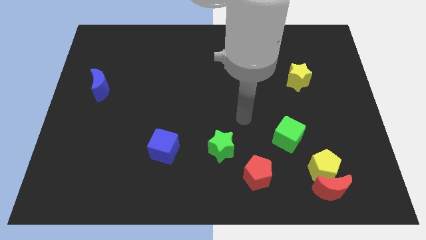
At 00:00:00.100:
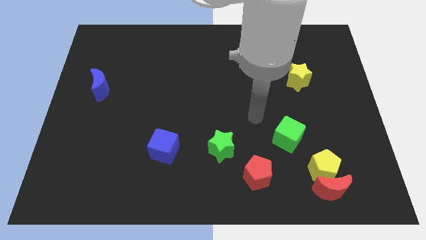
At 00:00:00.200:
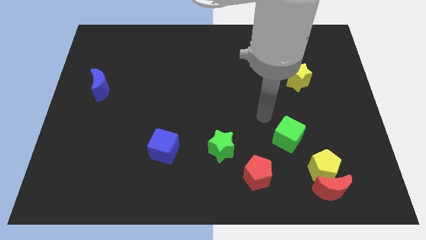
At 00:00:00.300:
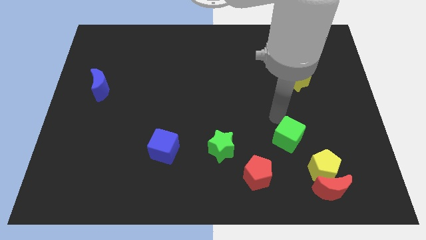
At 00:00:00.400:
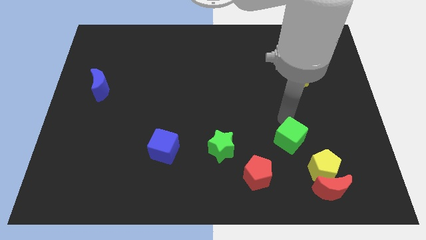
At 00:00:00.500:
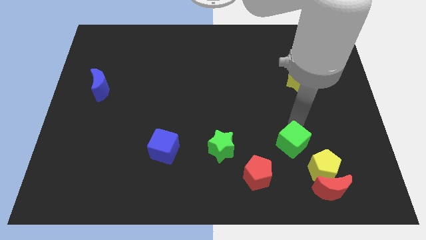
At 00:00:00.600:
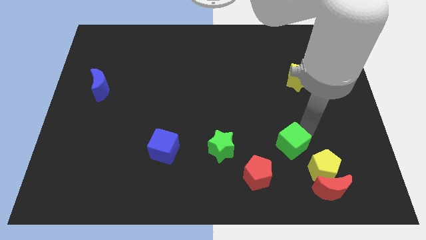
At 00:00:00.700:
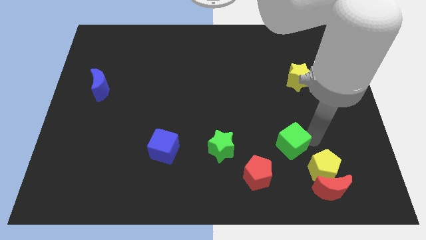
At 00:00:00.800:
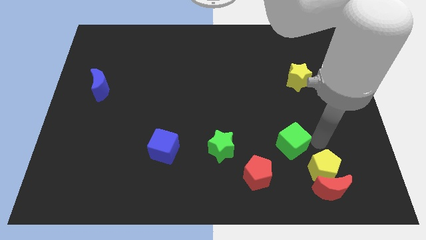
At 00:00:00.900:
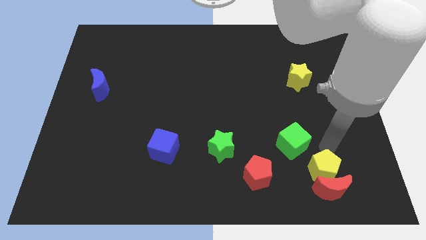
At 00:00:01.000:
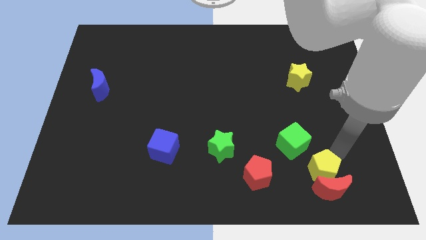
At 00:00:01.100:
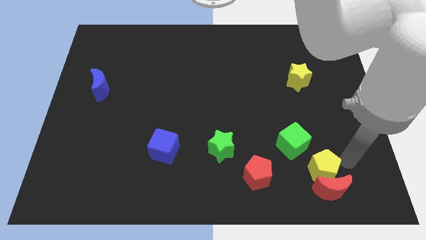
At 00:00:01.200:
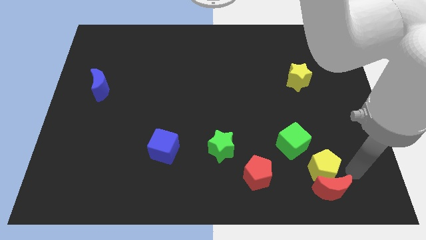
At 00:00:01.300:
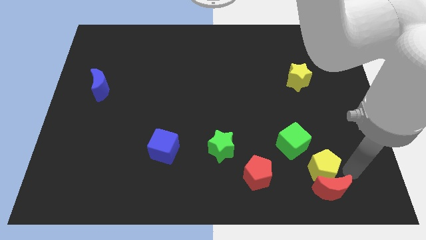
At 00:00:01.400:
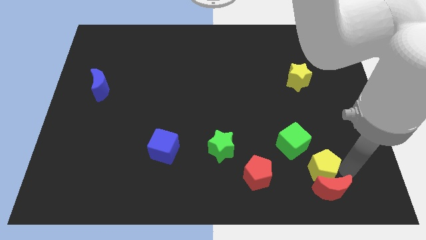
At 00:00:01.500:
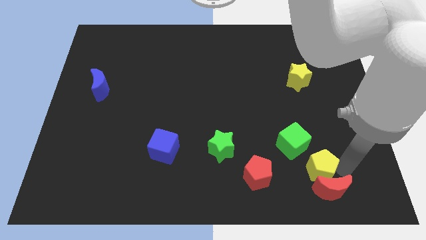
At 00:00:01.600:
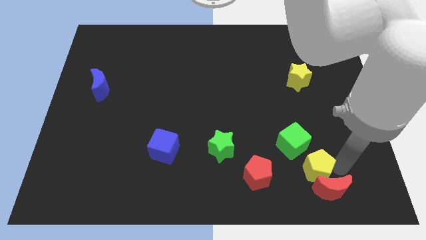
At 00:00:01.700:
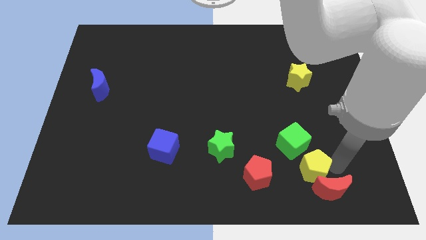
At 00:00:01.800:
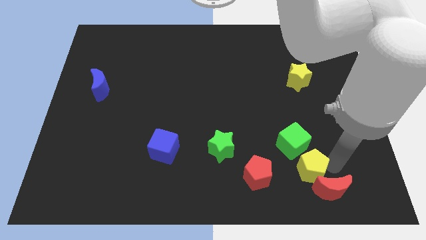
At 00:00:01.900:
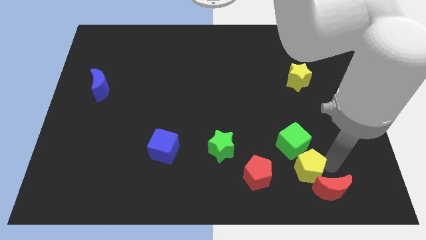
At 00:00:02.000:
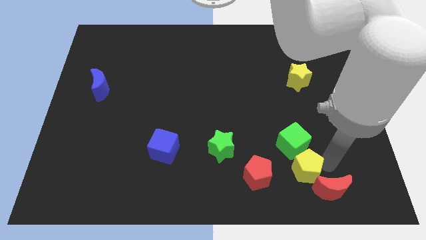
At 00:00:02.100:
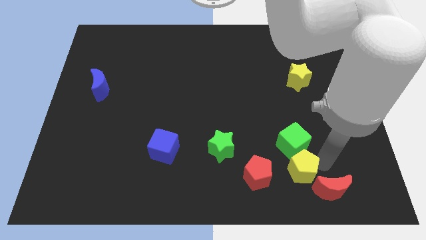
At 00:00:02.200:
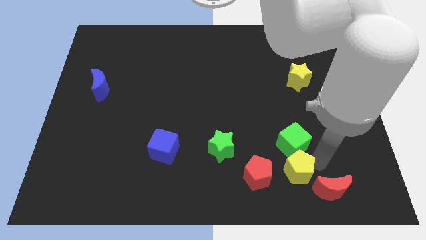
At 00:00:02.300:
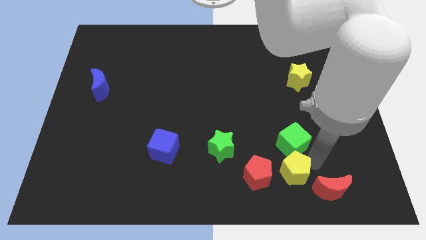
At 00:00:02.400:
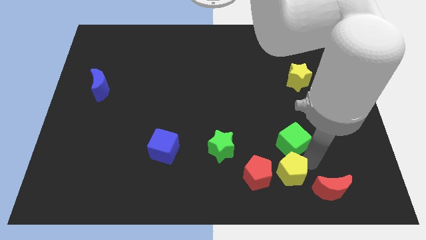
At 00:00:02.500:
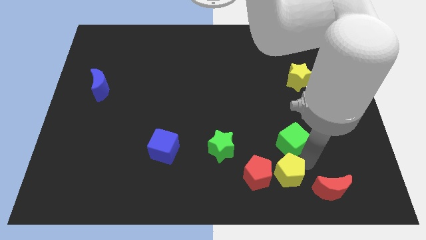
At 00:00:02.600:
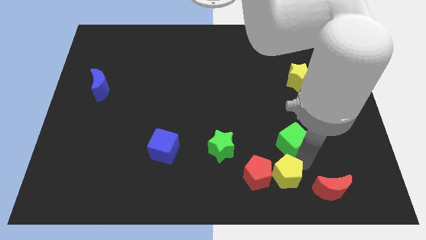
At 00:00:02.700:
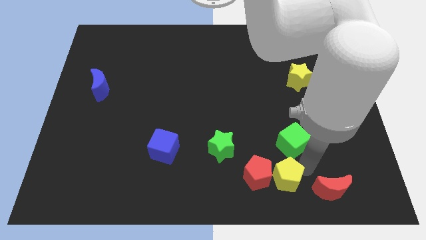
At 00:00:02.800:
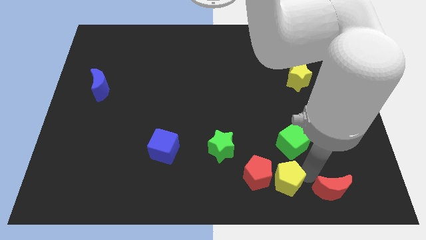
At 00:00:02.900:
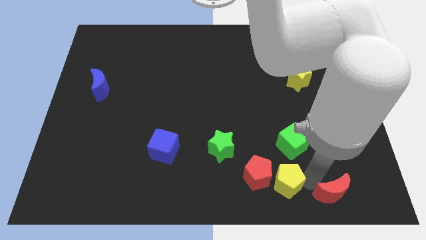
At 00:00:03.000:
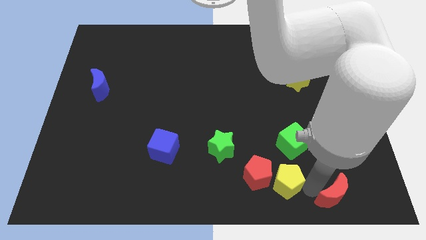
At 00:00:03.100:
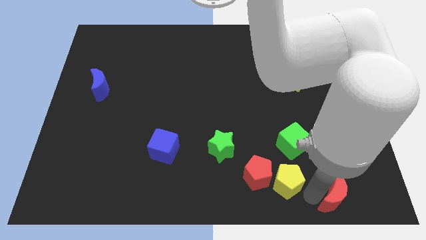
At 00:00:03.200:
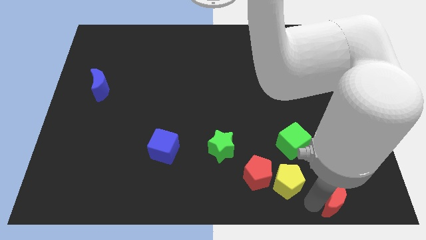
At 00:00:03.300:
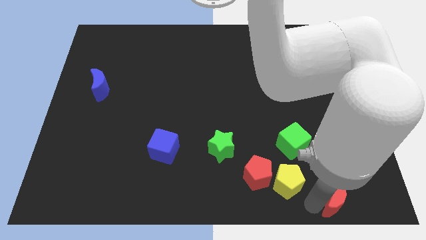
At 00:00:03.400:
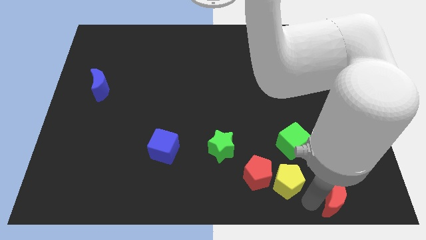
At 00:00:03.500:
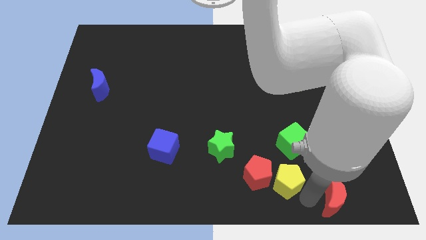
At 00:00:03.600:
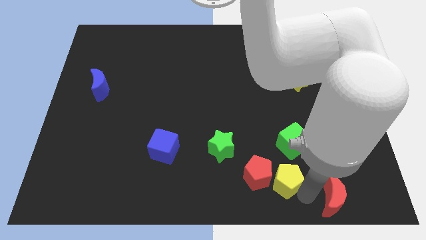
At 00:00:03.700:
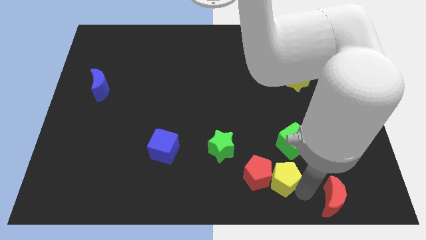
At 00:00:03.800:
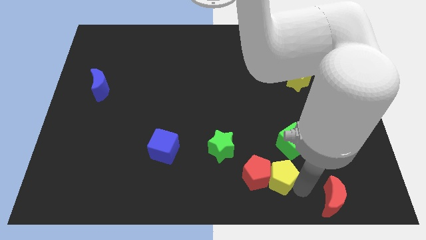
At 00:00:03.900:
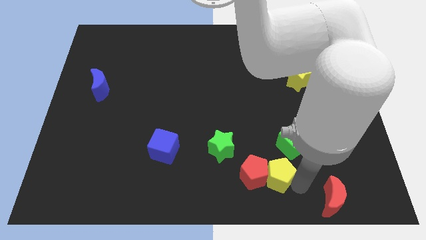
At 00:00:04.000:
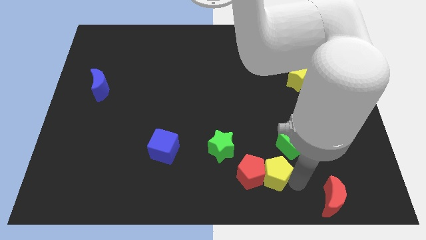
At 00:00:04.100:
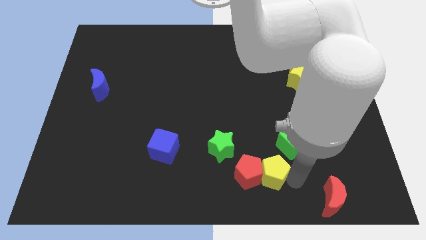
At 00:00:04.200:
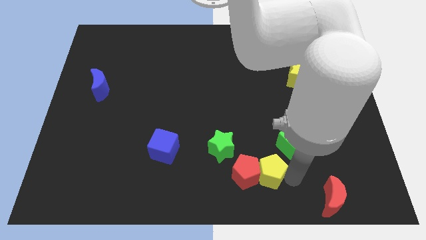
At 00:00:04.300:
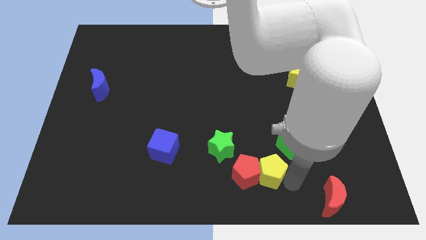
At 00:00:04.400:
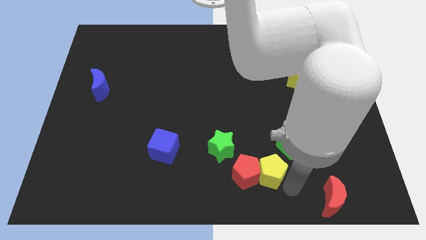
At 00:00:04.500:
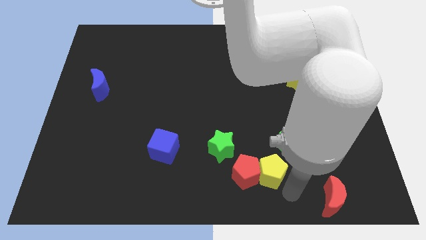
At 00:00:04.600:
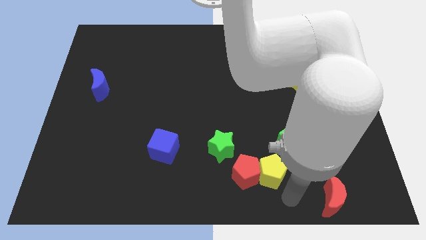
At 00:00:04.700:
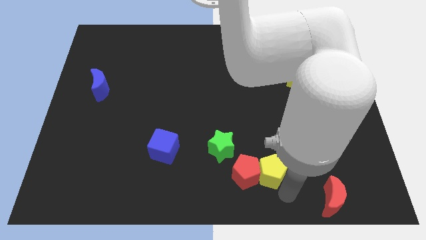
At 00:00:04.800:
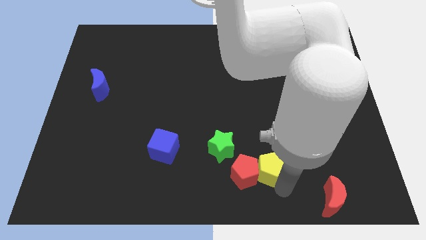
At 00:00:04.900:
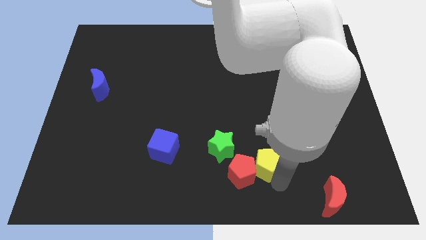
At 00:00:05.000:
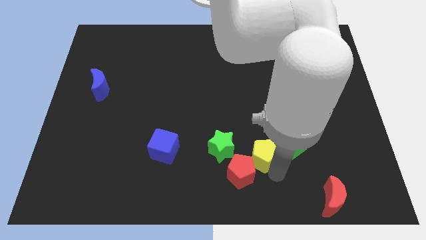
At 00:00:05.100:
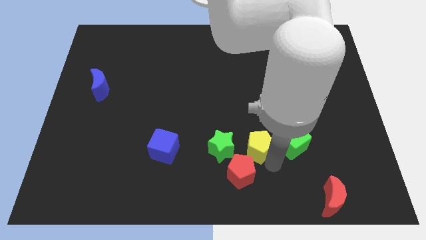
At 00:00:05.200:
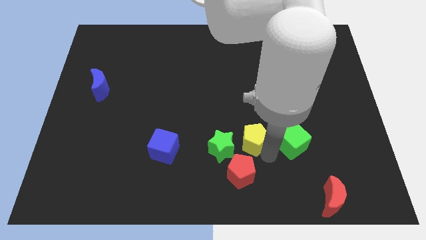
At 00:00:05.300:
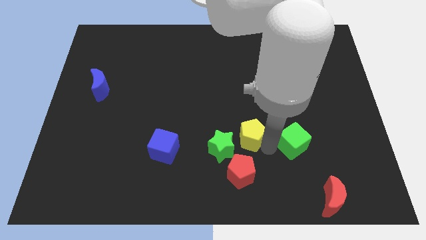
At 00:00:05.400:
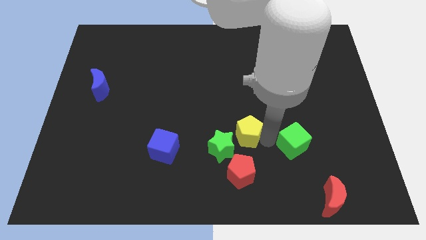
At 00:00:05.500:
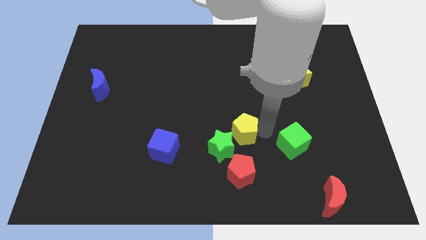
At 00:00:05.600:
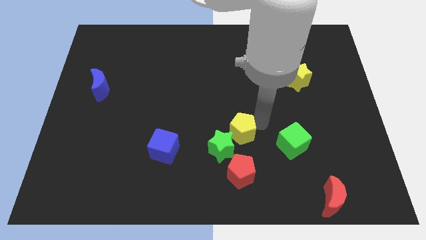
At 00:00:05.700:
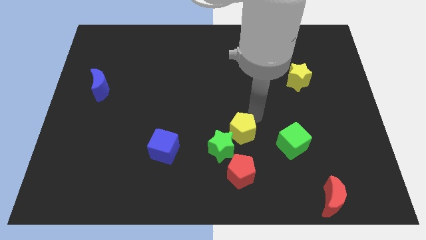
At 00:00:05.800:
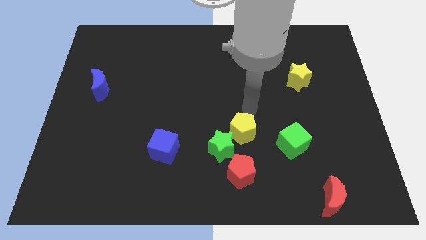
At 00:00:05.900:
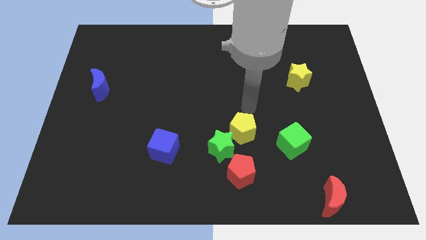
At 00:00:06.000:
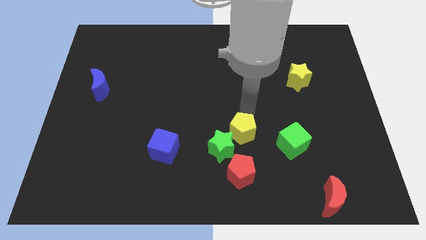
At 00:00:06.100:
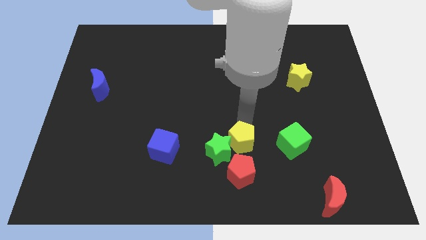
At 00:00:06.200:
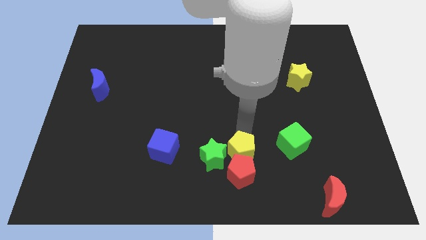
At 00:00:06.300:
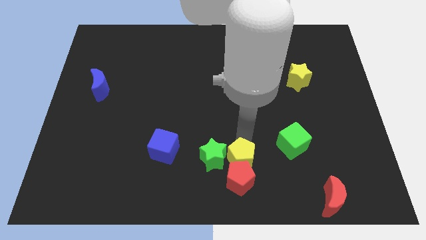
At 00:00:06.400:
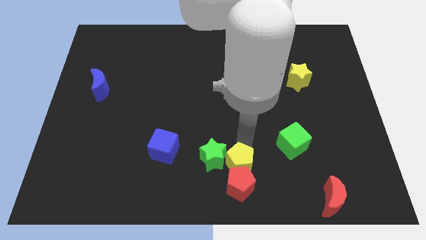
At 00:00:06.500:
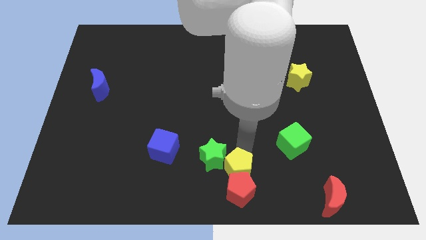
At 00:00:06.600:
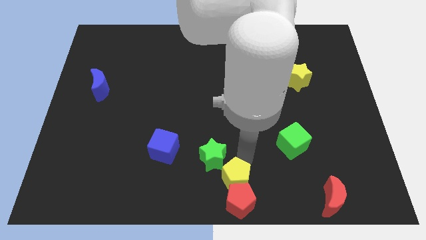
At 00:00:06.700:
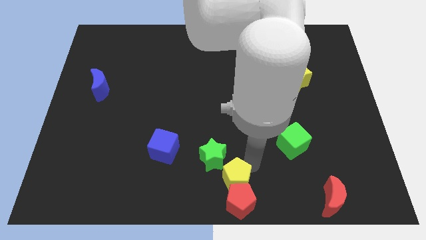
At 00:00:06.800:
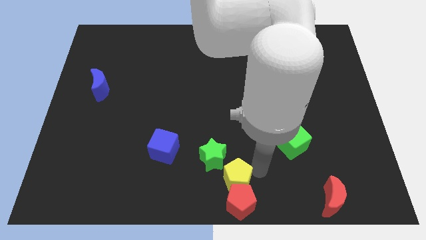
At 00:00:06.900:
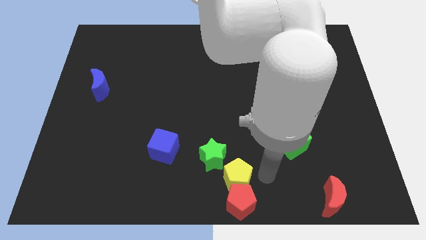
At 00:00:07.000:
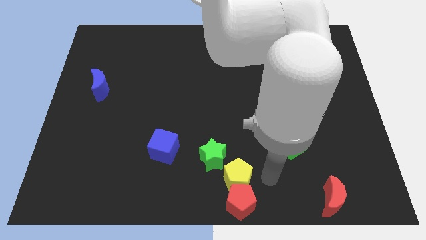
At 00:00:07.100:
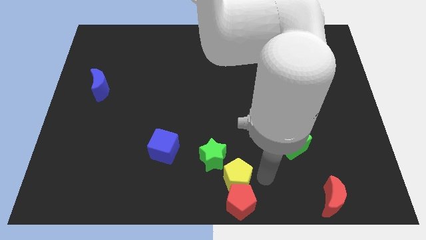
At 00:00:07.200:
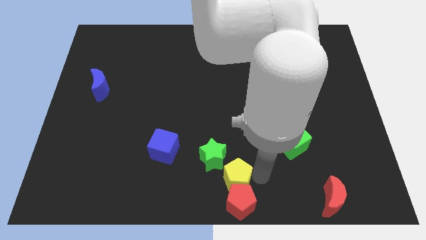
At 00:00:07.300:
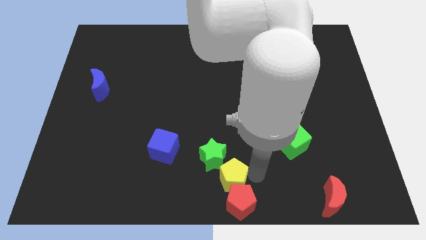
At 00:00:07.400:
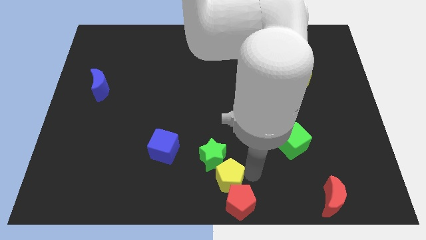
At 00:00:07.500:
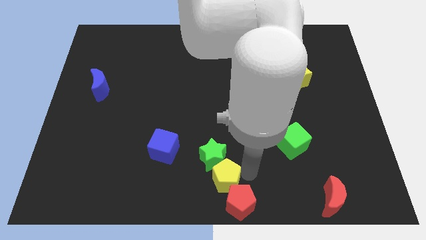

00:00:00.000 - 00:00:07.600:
move the yellow pentagon to the left
